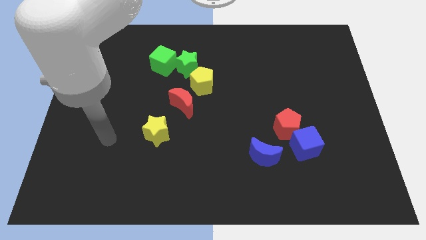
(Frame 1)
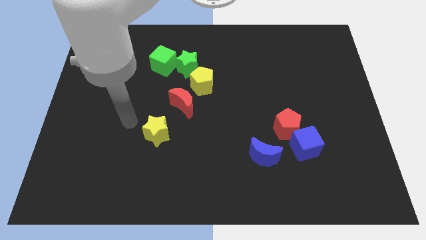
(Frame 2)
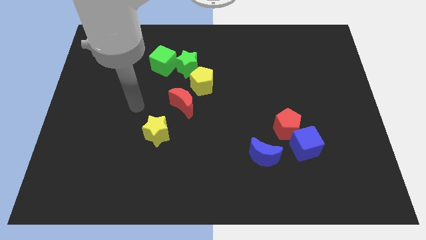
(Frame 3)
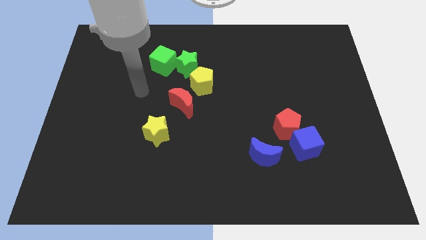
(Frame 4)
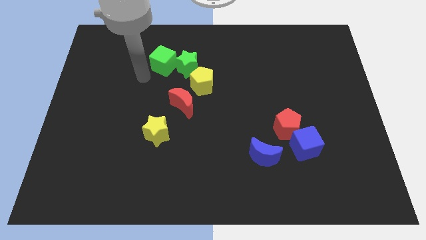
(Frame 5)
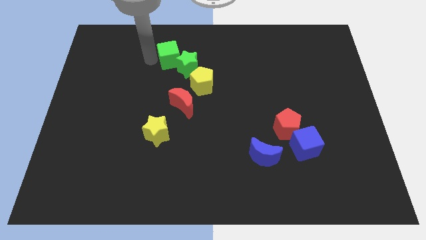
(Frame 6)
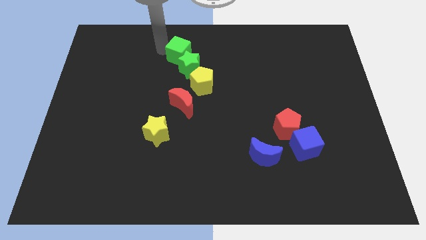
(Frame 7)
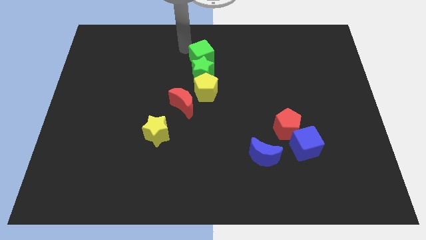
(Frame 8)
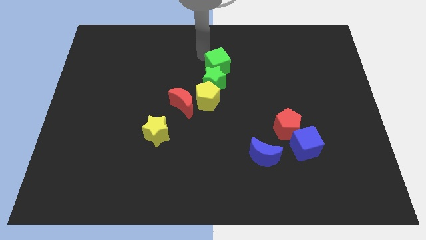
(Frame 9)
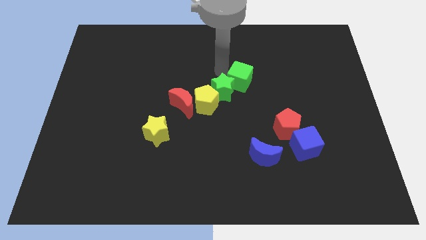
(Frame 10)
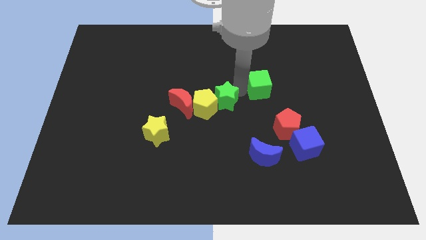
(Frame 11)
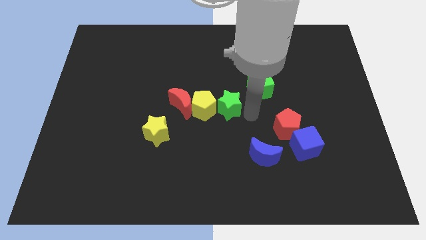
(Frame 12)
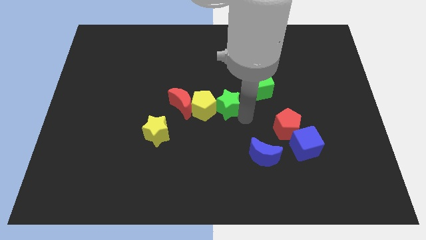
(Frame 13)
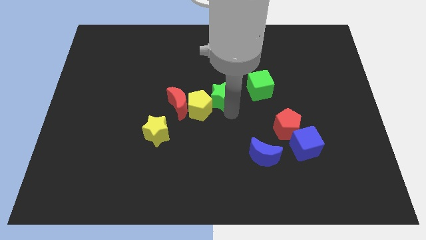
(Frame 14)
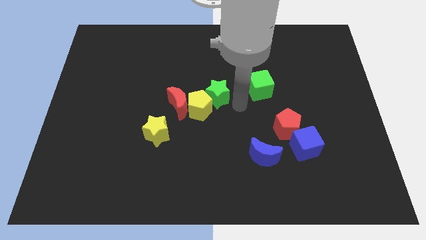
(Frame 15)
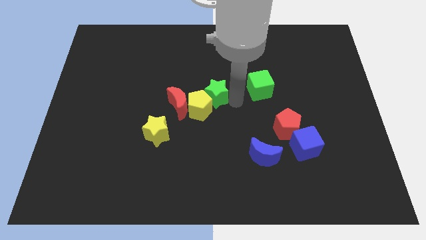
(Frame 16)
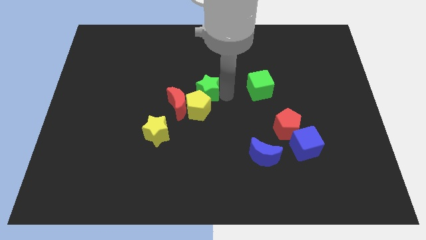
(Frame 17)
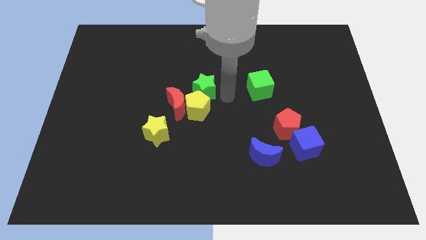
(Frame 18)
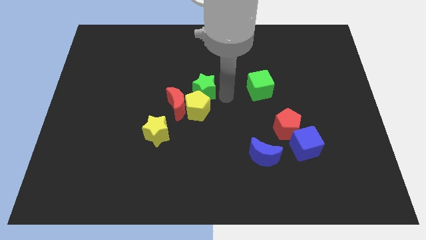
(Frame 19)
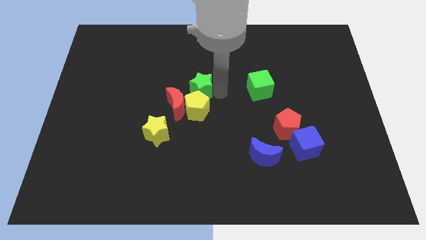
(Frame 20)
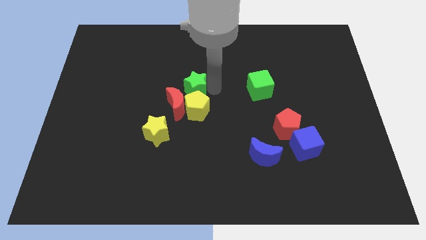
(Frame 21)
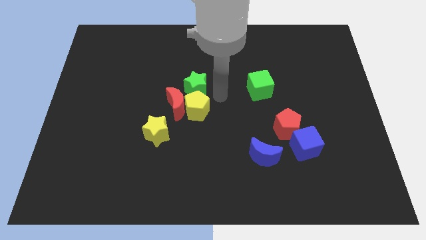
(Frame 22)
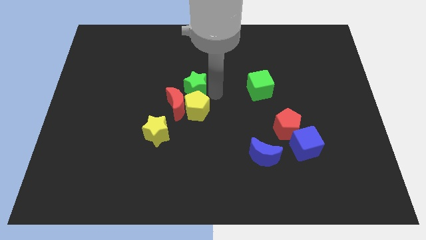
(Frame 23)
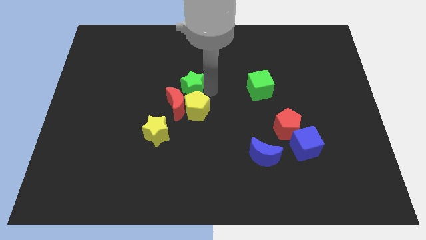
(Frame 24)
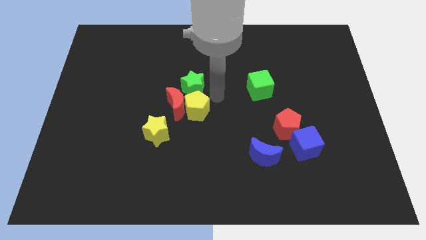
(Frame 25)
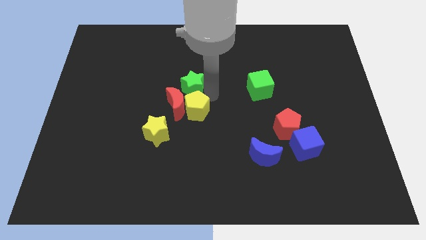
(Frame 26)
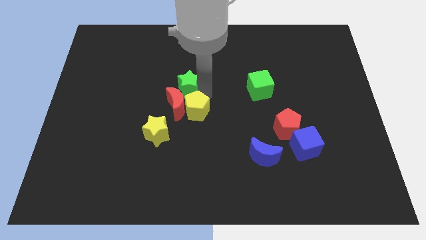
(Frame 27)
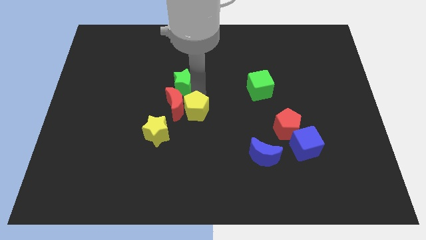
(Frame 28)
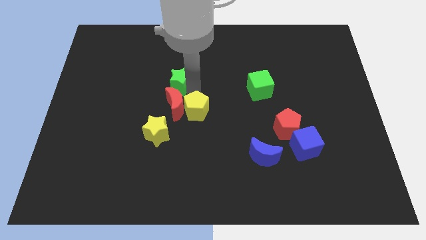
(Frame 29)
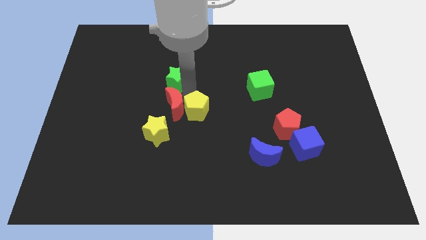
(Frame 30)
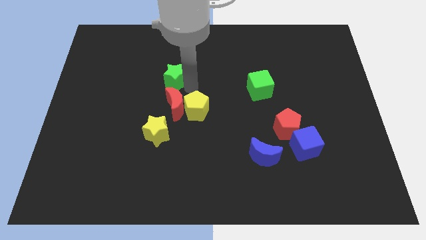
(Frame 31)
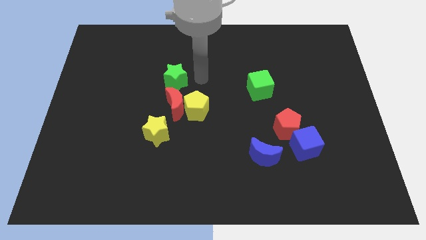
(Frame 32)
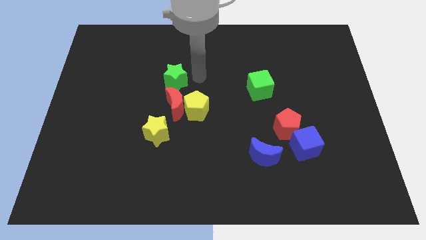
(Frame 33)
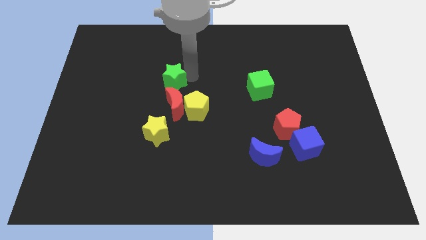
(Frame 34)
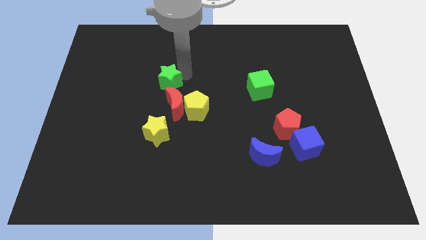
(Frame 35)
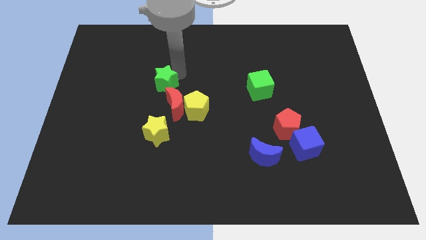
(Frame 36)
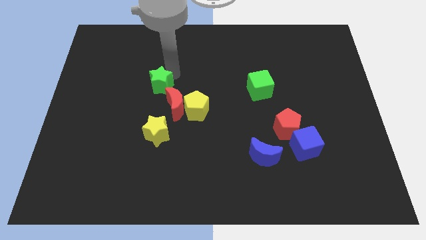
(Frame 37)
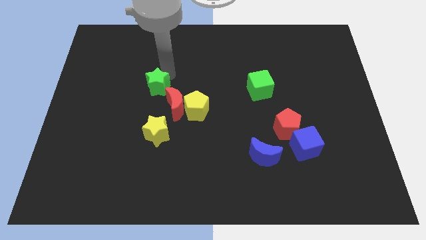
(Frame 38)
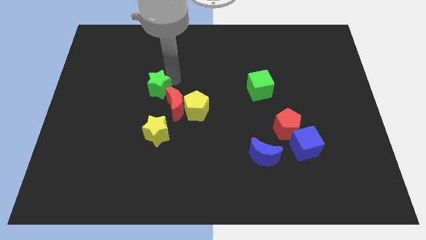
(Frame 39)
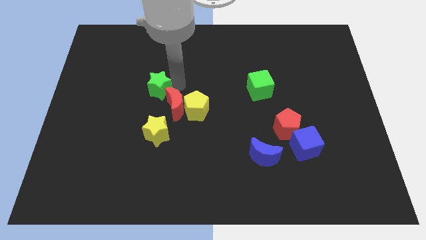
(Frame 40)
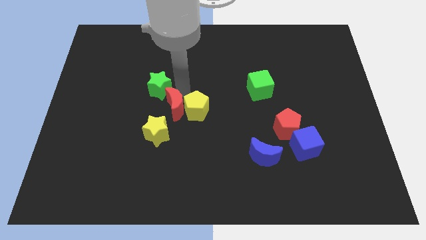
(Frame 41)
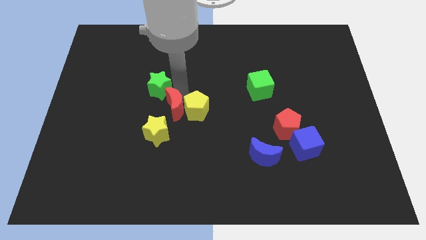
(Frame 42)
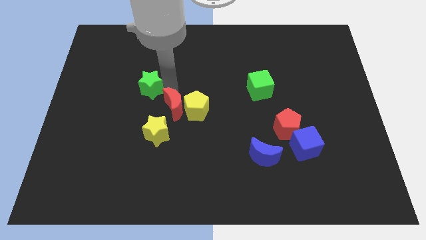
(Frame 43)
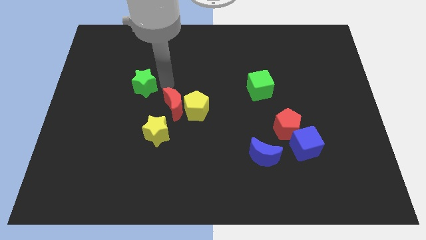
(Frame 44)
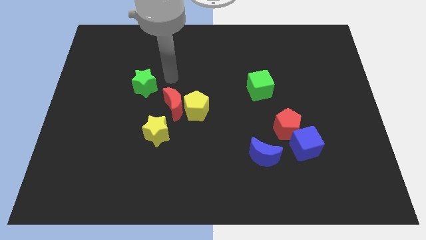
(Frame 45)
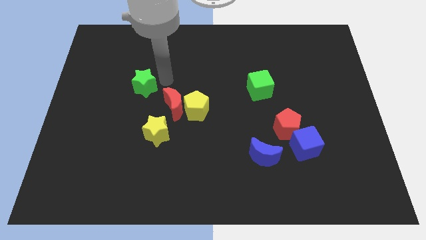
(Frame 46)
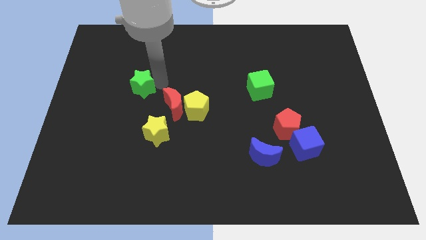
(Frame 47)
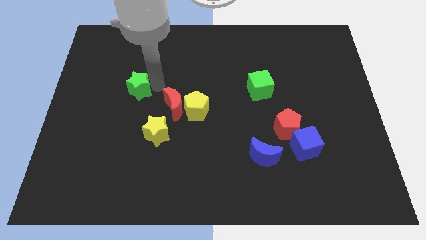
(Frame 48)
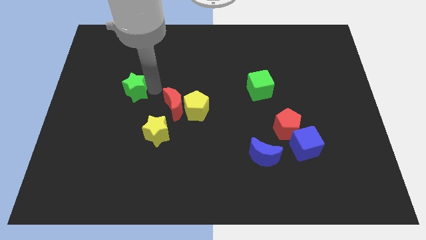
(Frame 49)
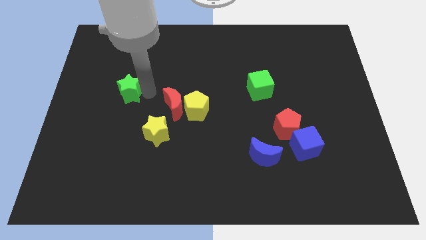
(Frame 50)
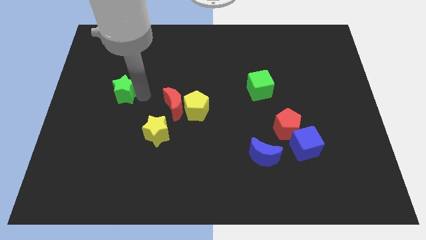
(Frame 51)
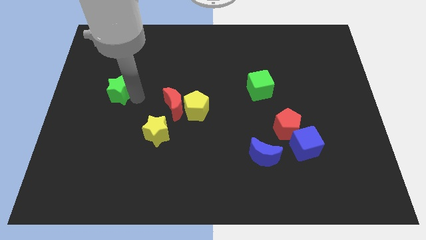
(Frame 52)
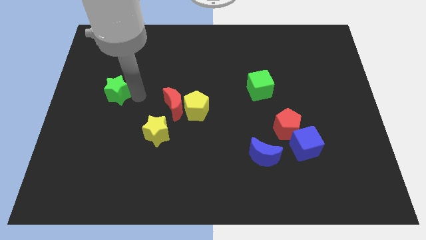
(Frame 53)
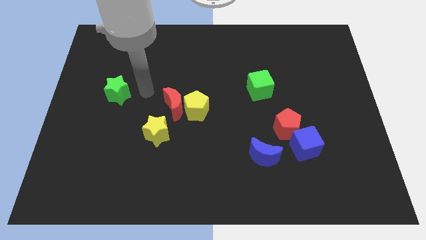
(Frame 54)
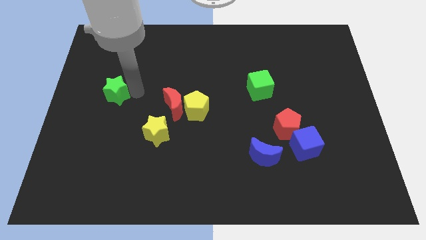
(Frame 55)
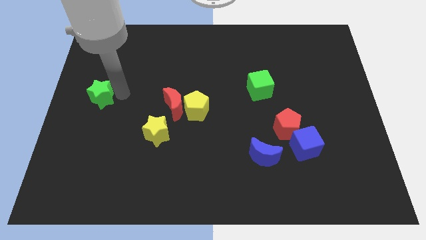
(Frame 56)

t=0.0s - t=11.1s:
slide the green star to the left side

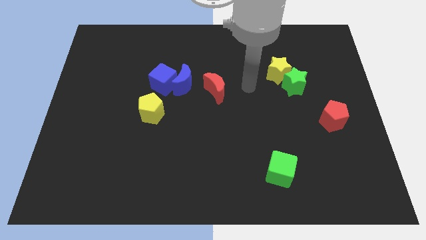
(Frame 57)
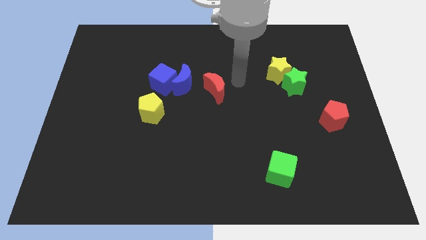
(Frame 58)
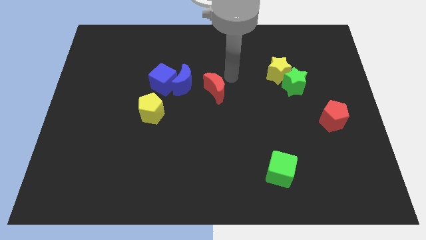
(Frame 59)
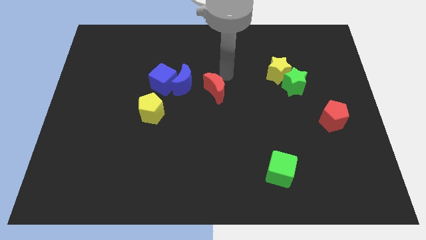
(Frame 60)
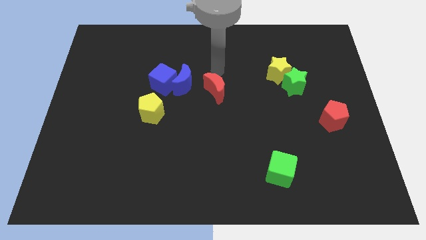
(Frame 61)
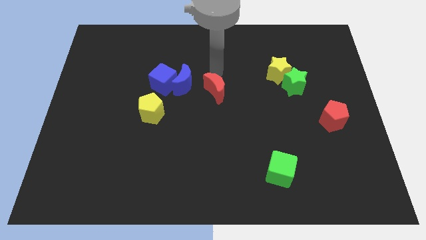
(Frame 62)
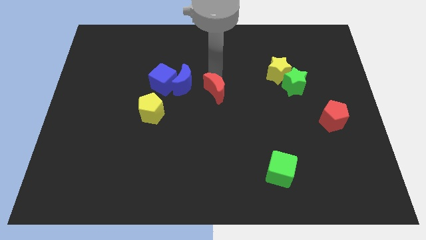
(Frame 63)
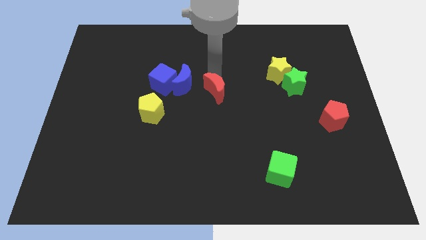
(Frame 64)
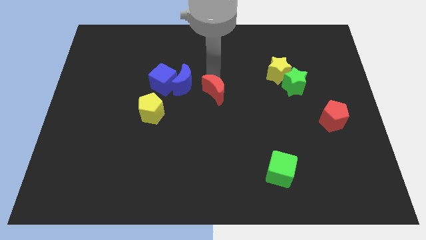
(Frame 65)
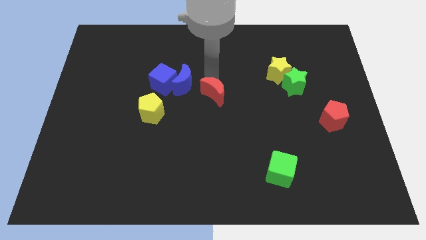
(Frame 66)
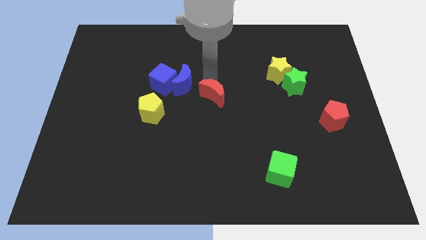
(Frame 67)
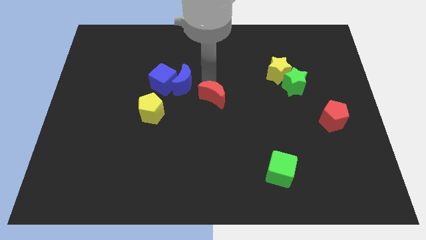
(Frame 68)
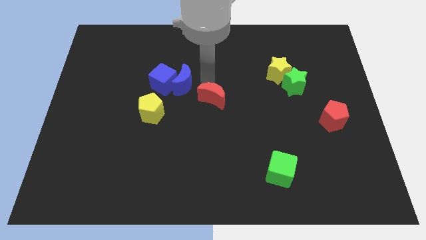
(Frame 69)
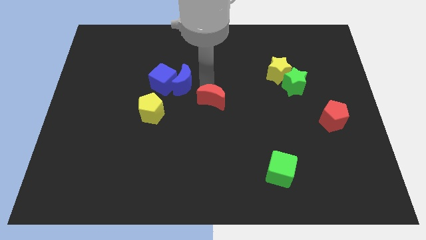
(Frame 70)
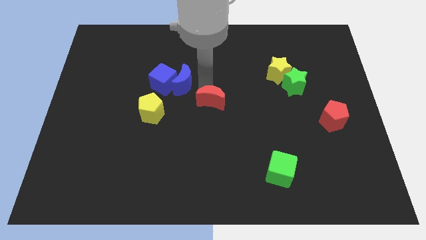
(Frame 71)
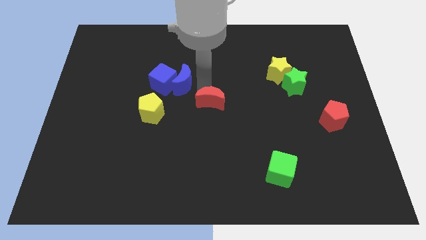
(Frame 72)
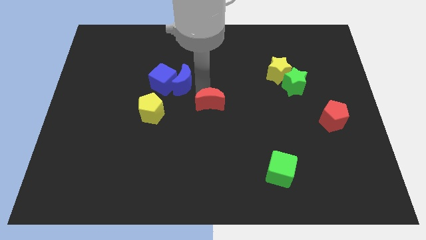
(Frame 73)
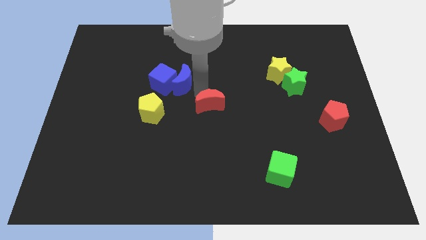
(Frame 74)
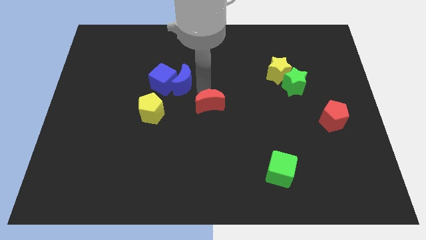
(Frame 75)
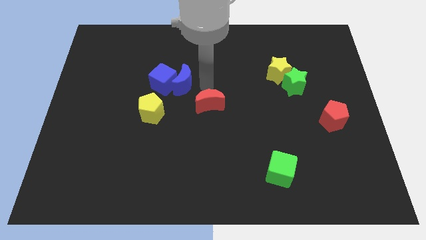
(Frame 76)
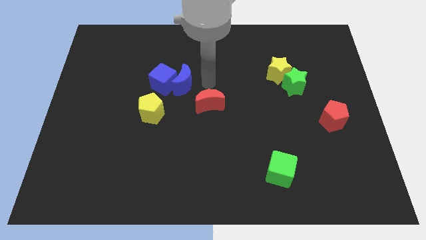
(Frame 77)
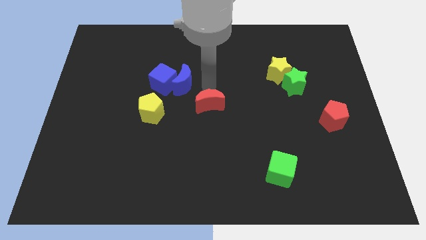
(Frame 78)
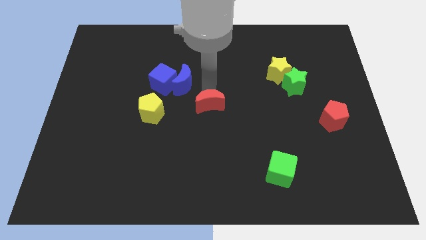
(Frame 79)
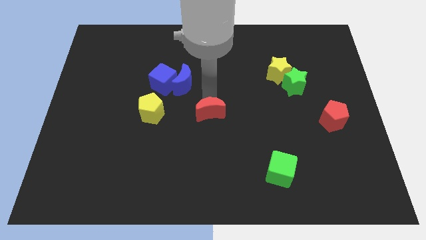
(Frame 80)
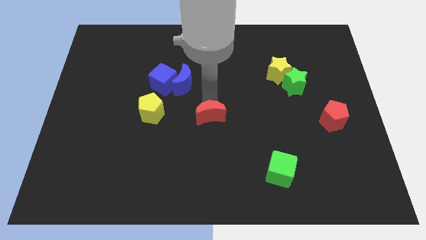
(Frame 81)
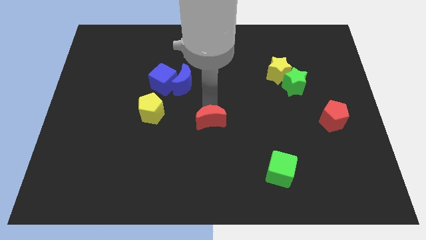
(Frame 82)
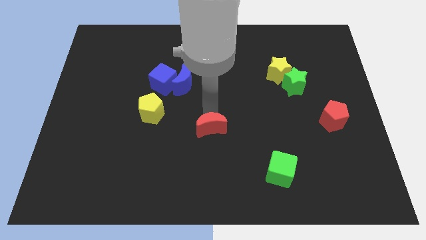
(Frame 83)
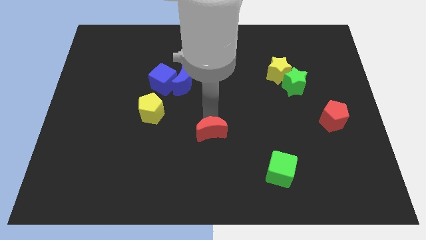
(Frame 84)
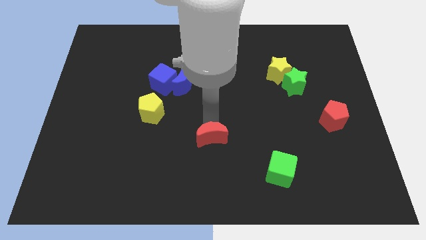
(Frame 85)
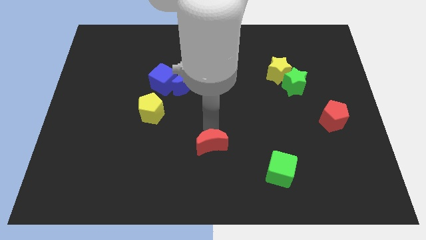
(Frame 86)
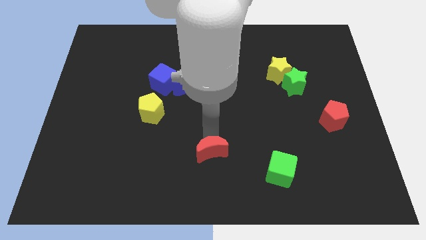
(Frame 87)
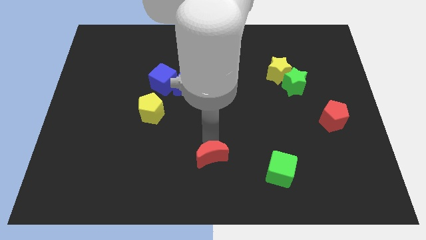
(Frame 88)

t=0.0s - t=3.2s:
push the red moon to the bottom side
